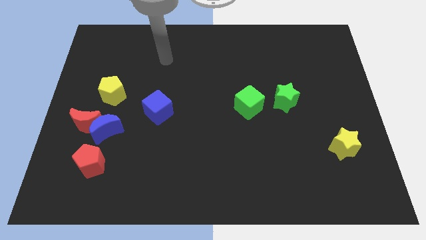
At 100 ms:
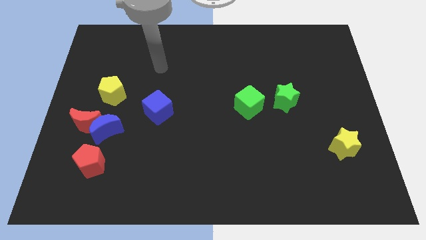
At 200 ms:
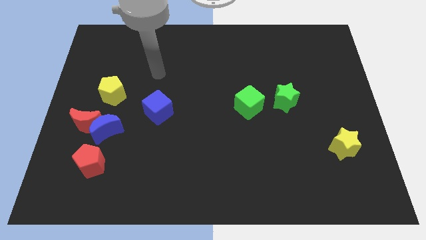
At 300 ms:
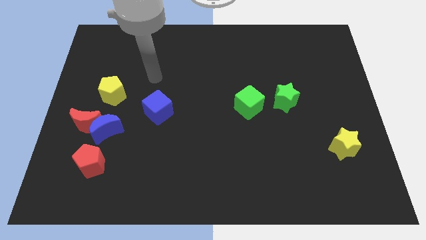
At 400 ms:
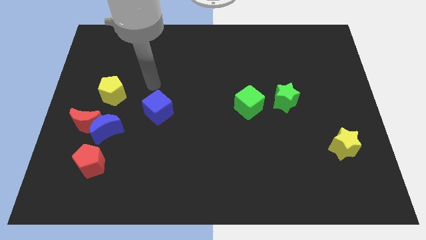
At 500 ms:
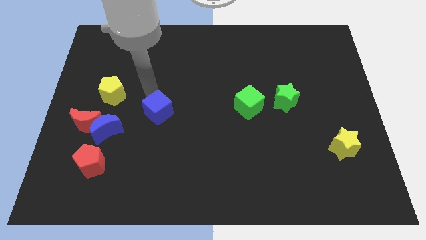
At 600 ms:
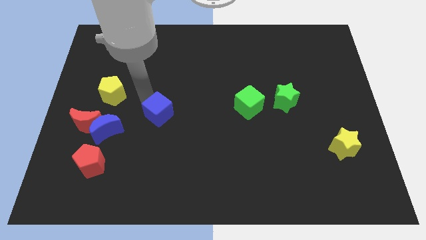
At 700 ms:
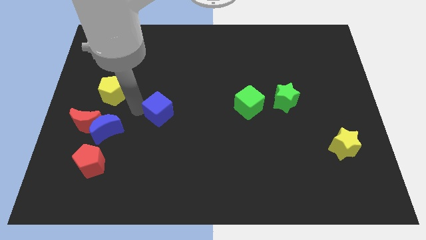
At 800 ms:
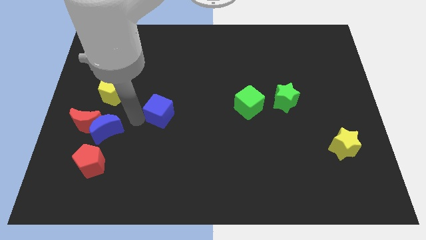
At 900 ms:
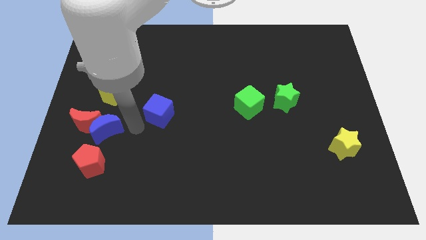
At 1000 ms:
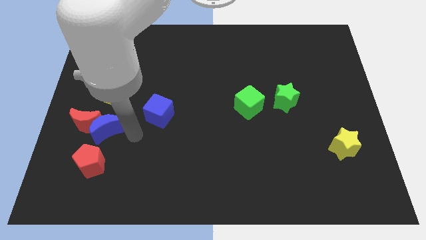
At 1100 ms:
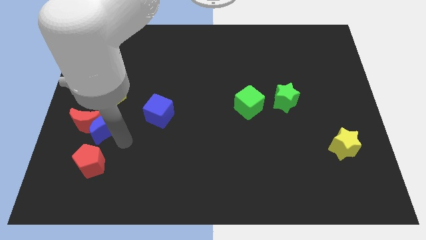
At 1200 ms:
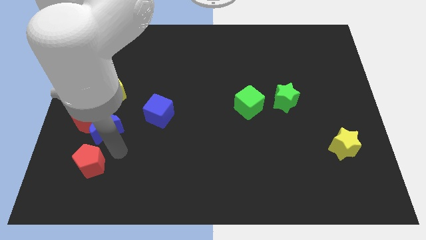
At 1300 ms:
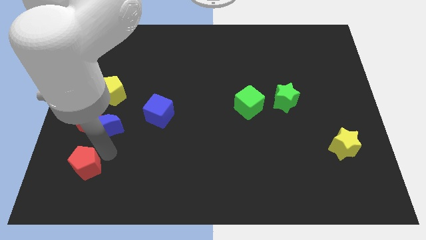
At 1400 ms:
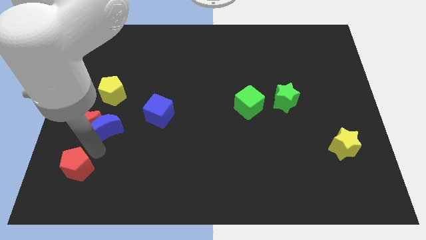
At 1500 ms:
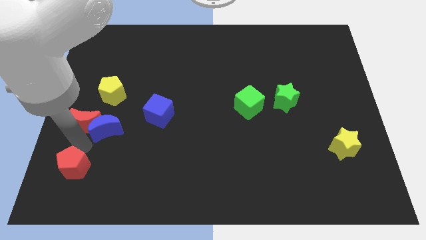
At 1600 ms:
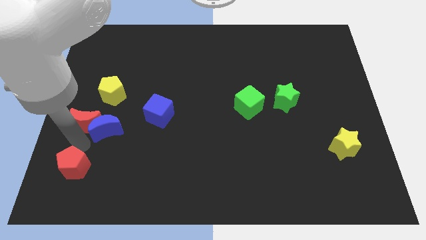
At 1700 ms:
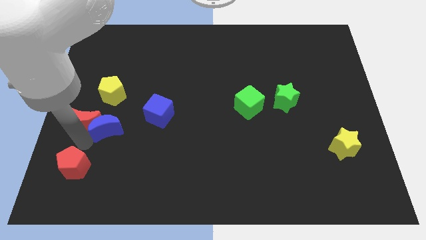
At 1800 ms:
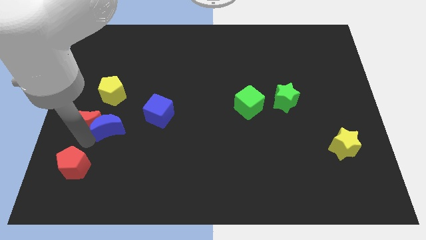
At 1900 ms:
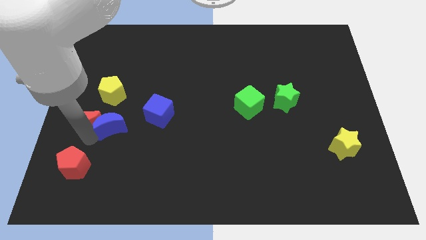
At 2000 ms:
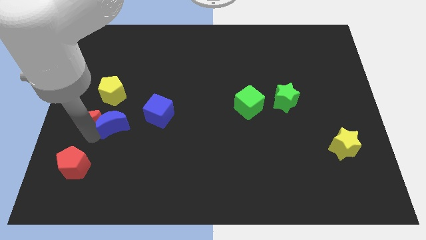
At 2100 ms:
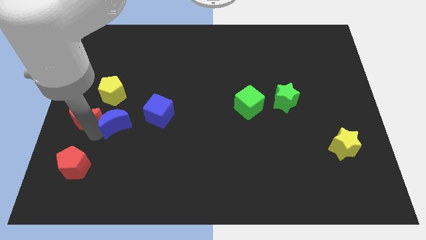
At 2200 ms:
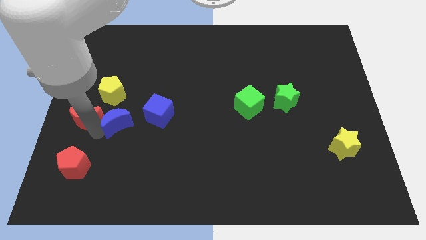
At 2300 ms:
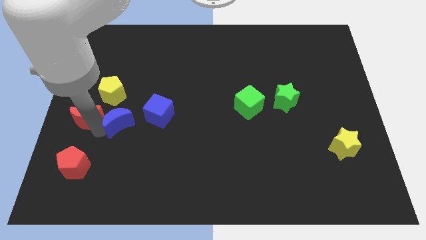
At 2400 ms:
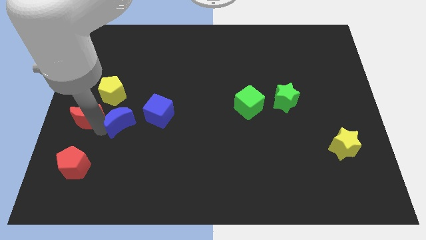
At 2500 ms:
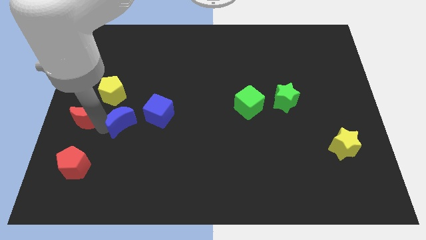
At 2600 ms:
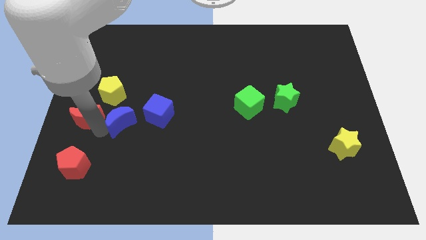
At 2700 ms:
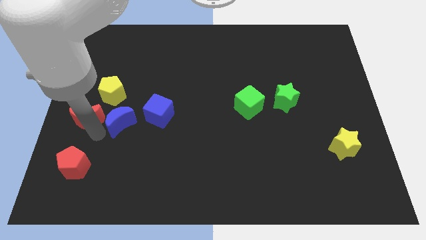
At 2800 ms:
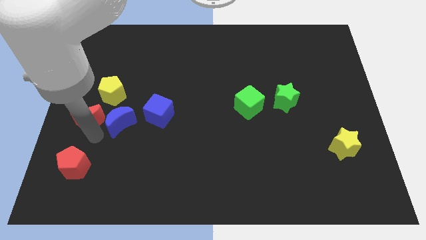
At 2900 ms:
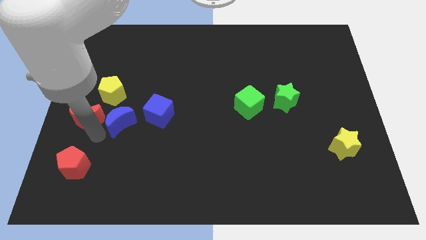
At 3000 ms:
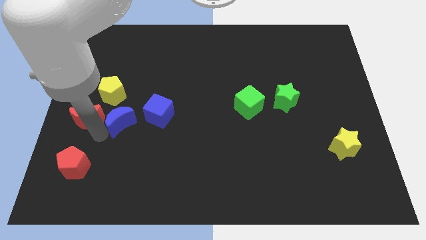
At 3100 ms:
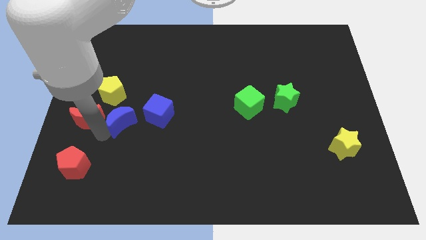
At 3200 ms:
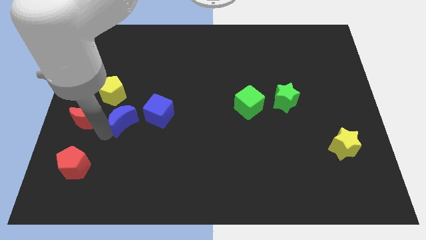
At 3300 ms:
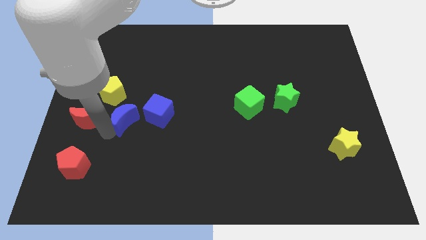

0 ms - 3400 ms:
pull the blue moon apart from the red moon and red pentagon

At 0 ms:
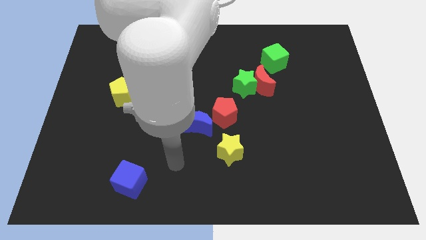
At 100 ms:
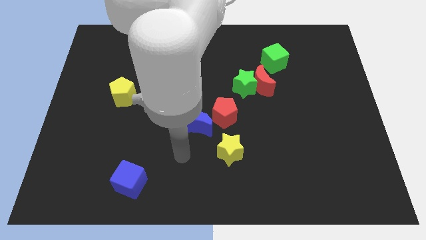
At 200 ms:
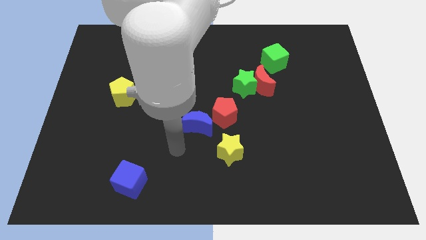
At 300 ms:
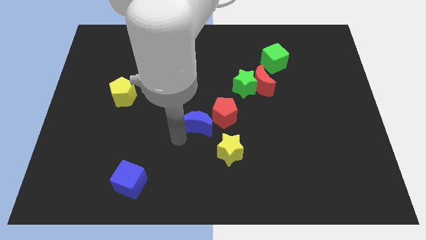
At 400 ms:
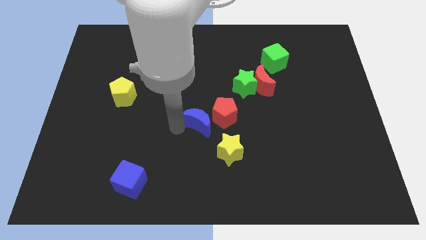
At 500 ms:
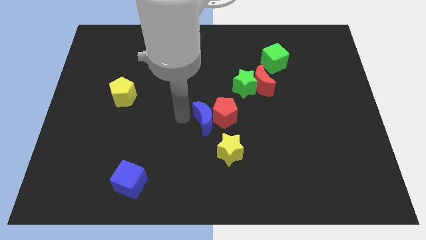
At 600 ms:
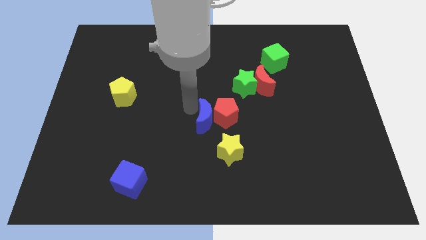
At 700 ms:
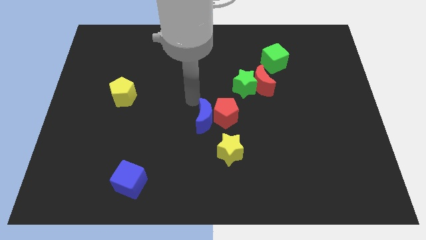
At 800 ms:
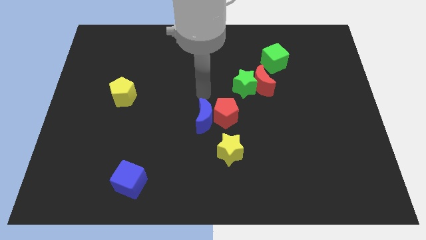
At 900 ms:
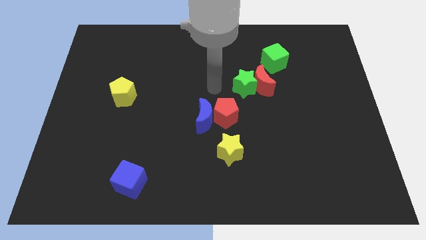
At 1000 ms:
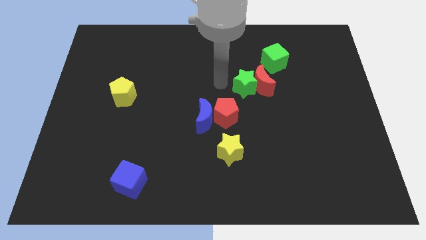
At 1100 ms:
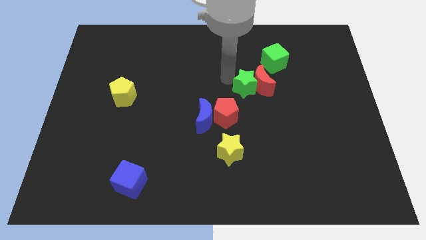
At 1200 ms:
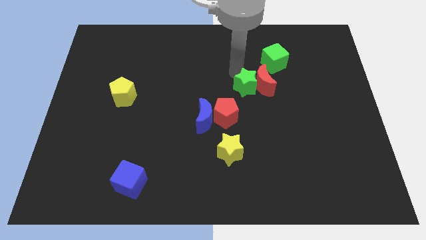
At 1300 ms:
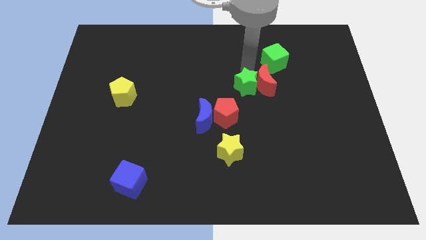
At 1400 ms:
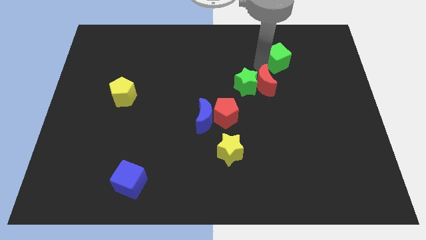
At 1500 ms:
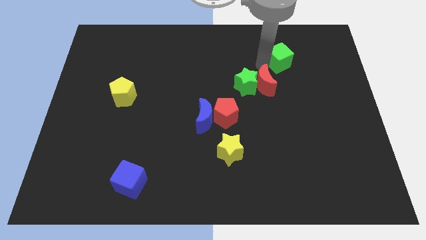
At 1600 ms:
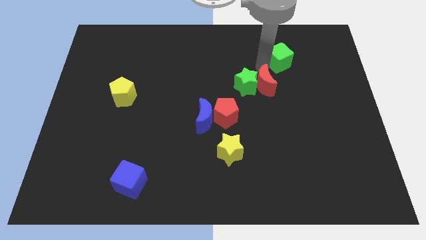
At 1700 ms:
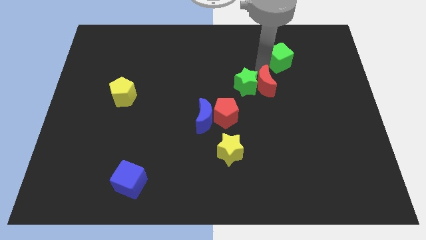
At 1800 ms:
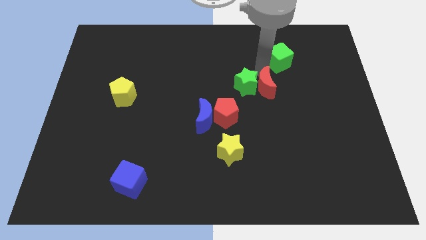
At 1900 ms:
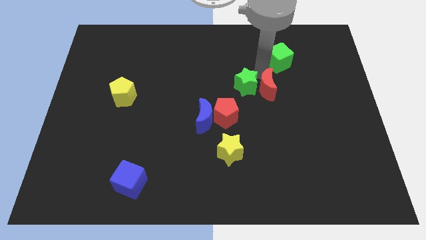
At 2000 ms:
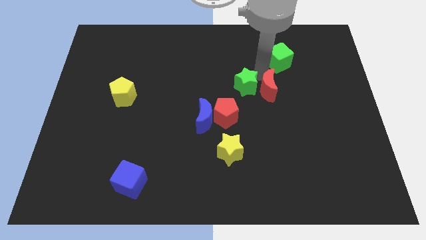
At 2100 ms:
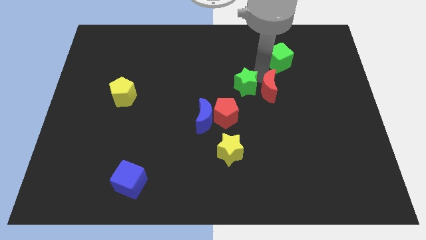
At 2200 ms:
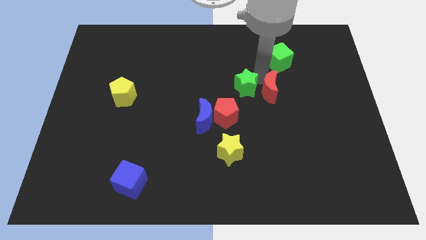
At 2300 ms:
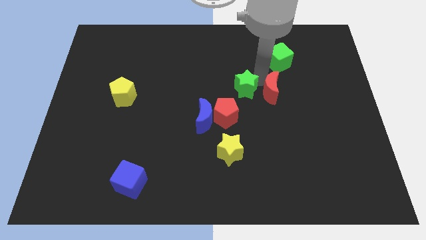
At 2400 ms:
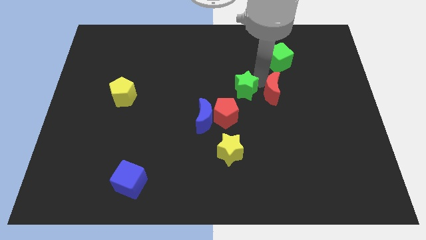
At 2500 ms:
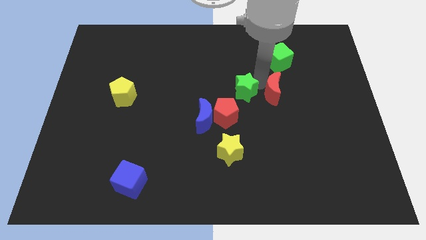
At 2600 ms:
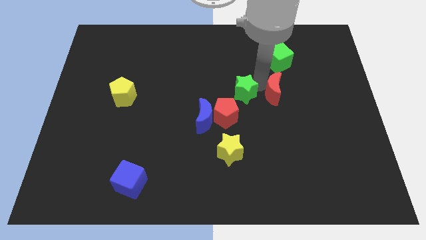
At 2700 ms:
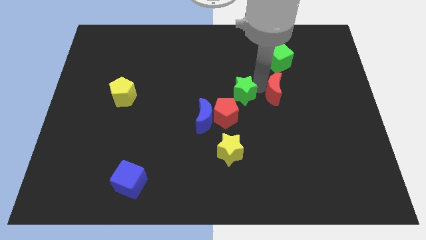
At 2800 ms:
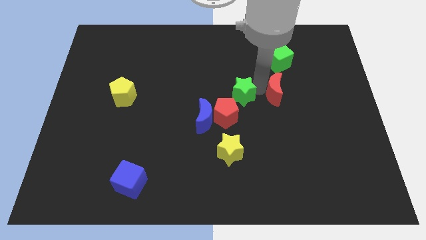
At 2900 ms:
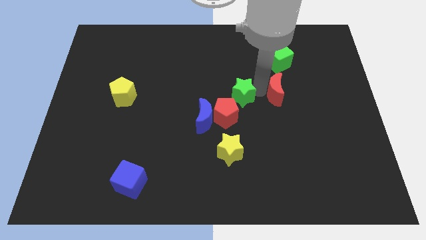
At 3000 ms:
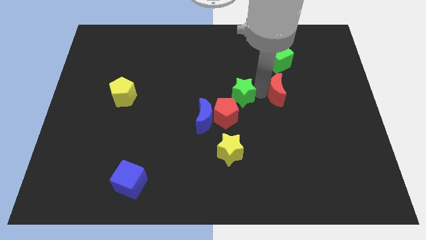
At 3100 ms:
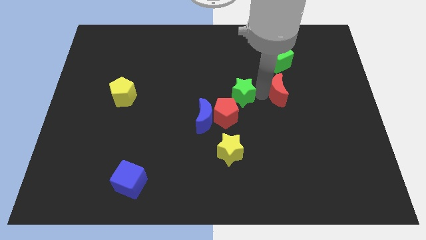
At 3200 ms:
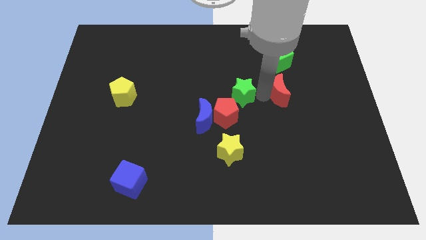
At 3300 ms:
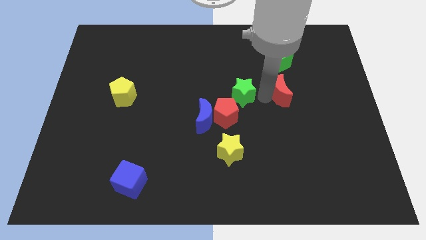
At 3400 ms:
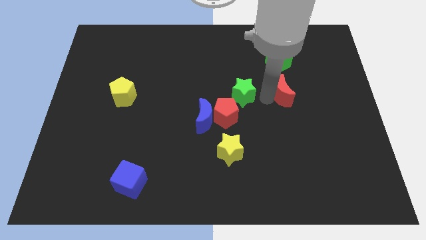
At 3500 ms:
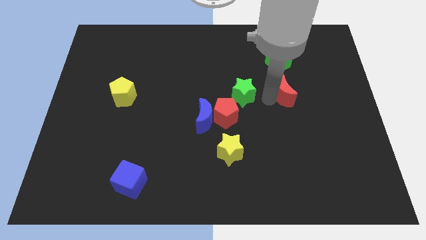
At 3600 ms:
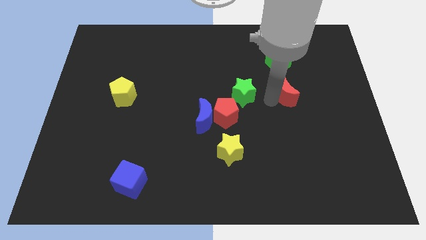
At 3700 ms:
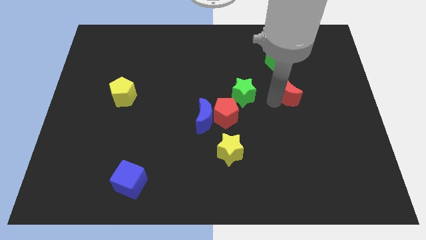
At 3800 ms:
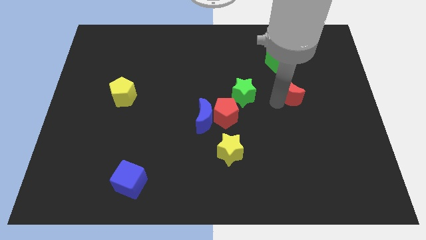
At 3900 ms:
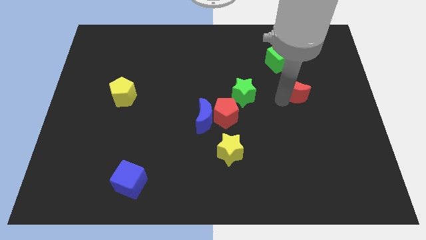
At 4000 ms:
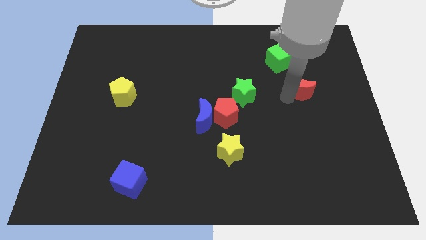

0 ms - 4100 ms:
move the red moon away from the green star and green cube

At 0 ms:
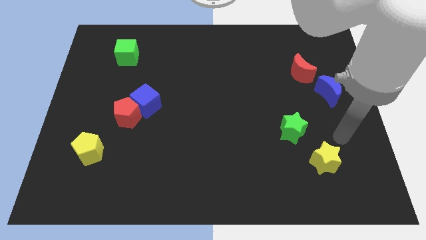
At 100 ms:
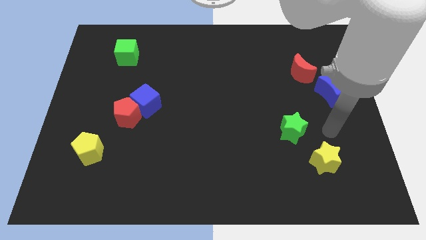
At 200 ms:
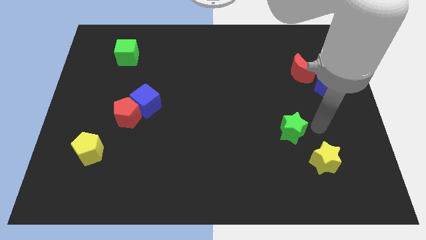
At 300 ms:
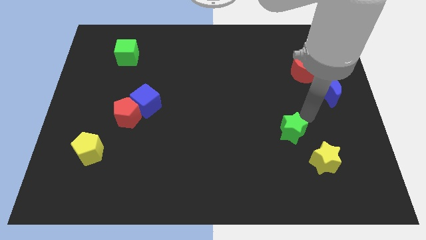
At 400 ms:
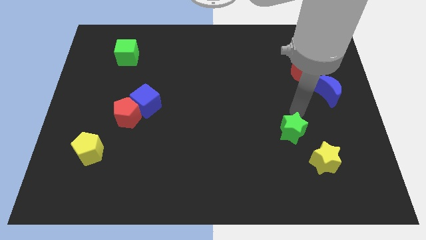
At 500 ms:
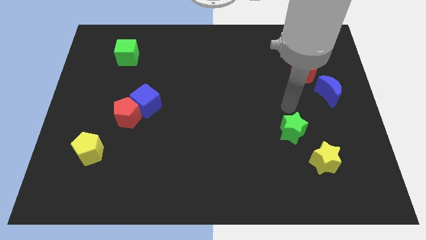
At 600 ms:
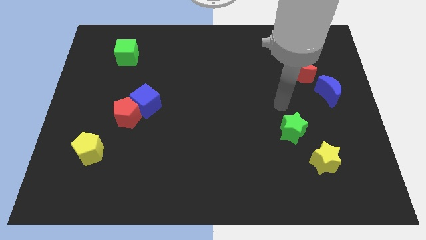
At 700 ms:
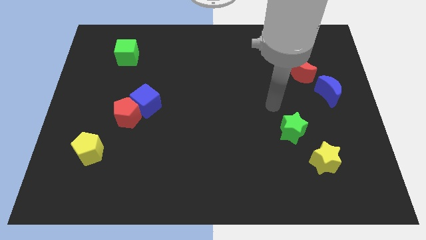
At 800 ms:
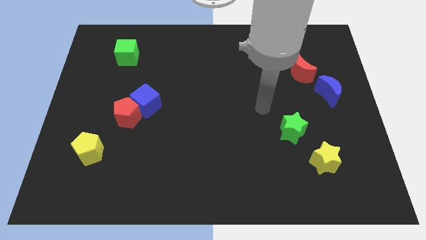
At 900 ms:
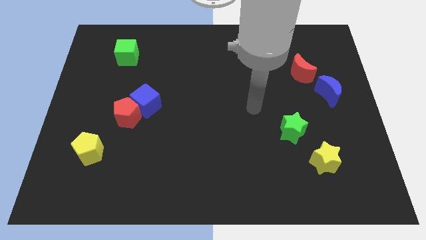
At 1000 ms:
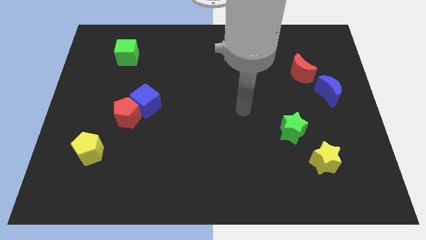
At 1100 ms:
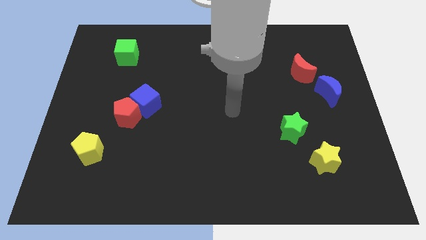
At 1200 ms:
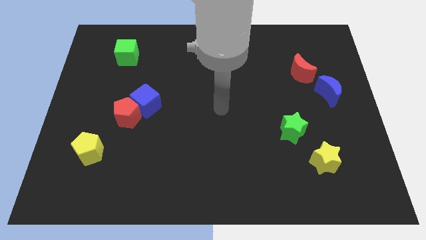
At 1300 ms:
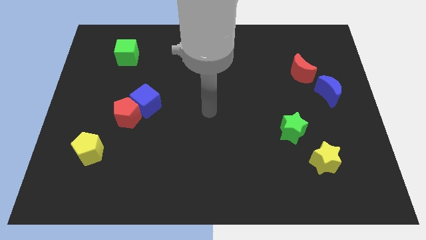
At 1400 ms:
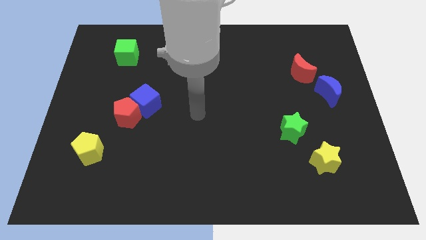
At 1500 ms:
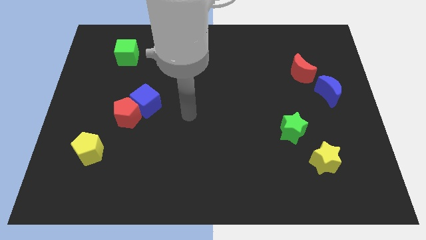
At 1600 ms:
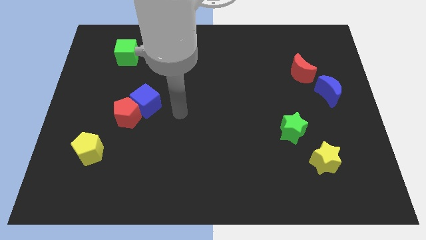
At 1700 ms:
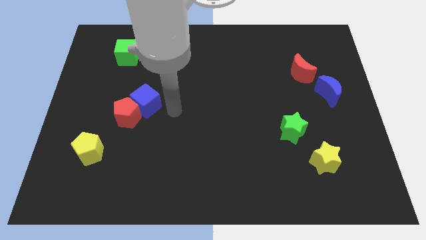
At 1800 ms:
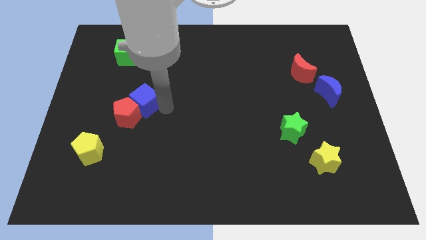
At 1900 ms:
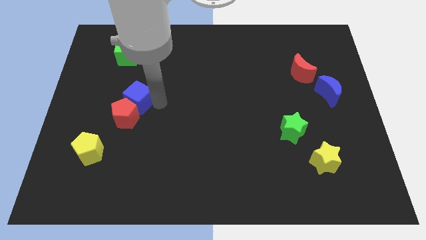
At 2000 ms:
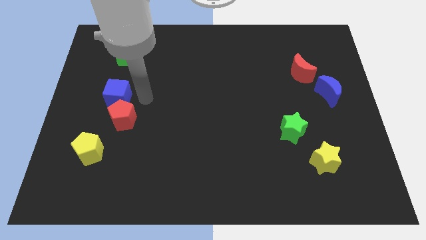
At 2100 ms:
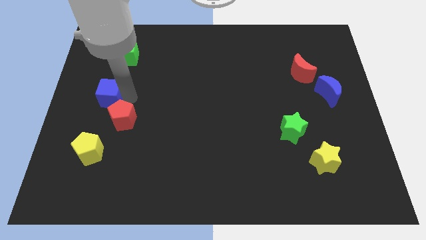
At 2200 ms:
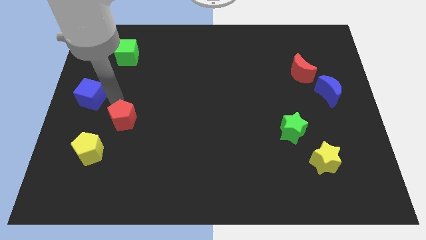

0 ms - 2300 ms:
pull the red pentagon apart from the blue cube
